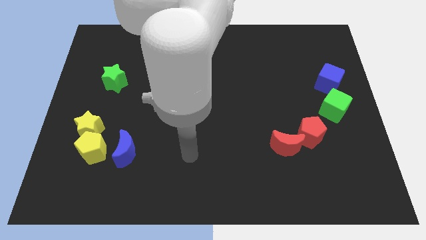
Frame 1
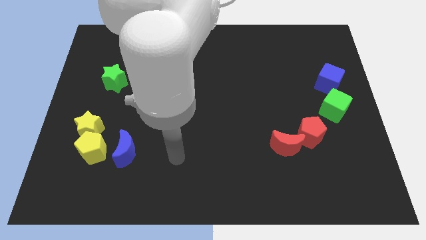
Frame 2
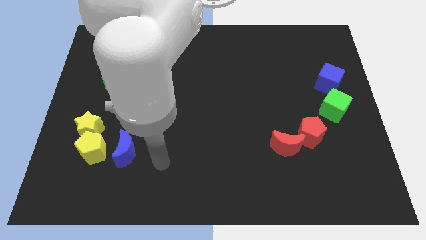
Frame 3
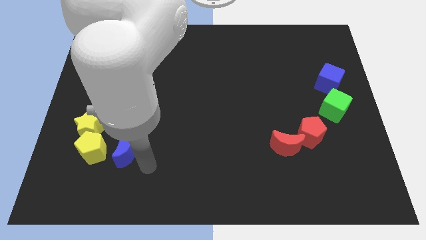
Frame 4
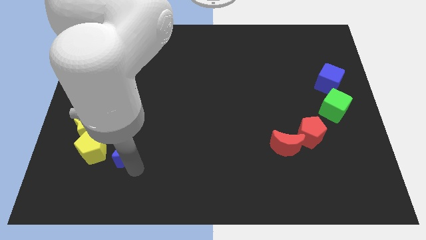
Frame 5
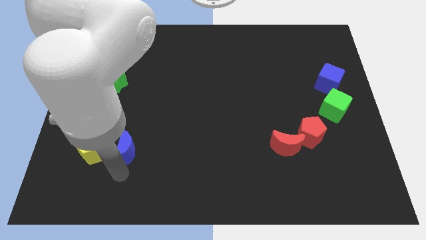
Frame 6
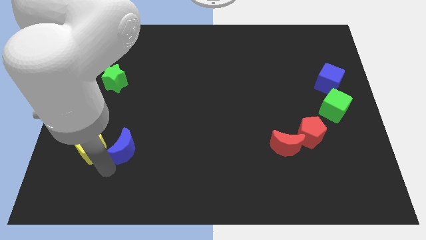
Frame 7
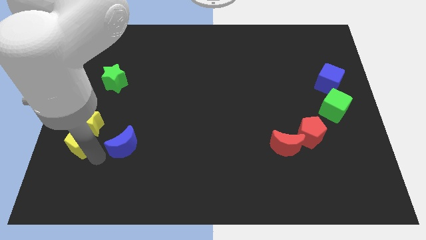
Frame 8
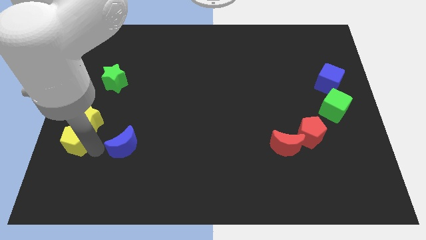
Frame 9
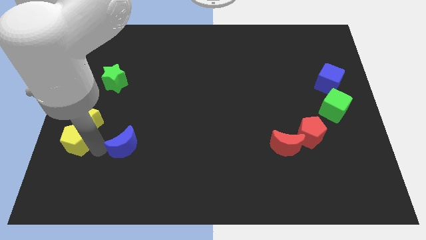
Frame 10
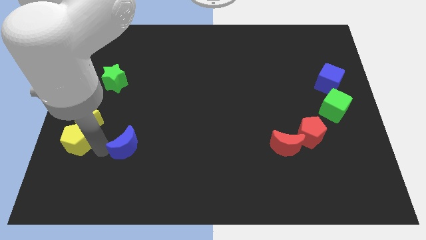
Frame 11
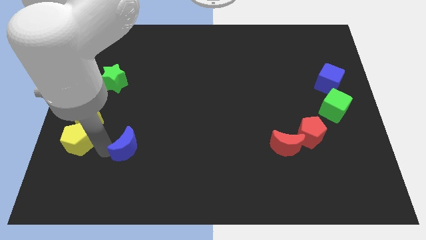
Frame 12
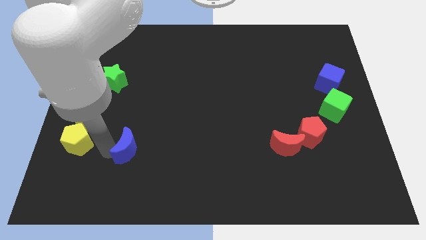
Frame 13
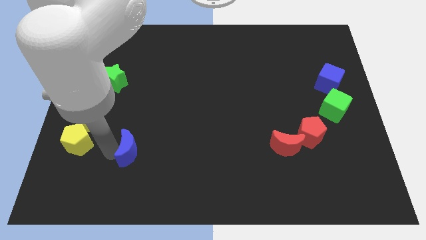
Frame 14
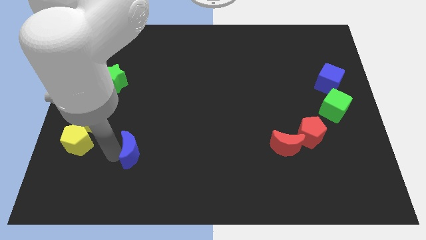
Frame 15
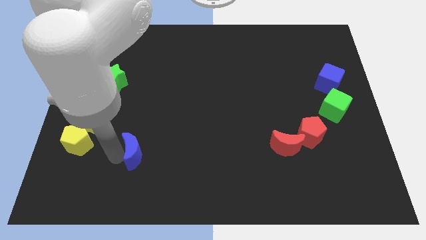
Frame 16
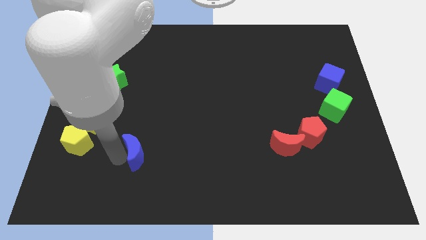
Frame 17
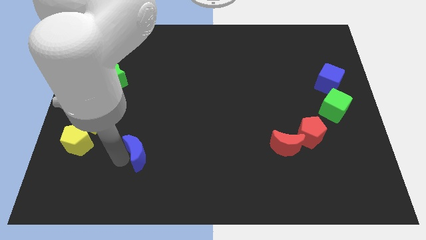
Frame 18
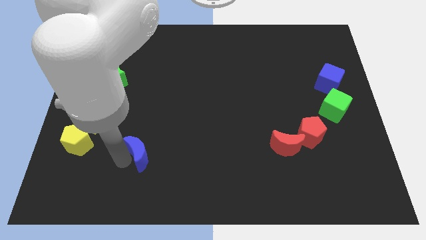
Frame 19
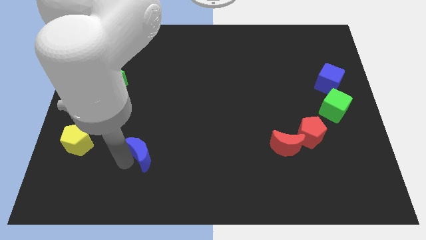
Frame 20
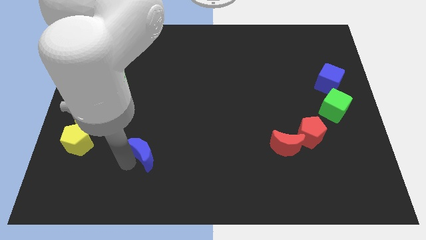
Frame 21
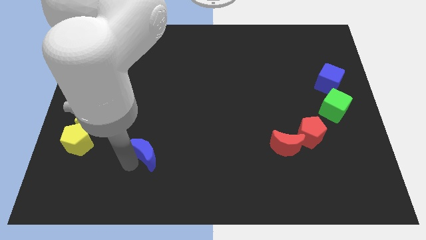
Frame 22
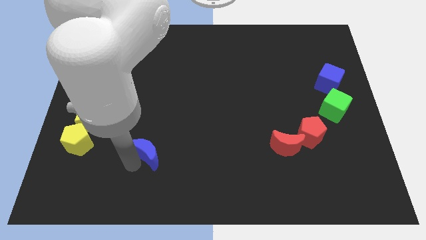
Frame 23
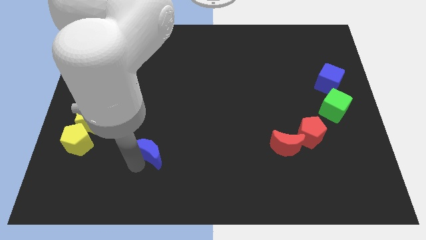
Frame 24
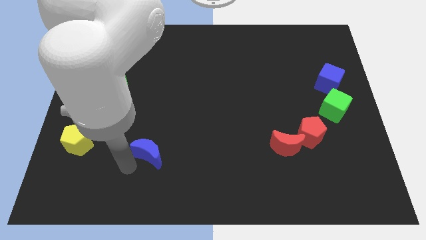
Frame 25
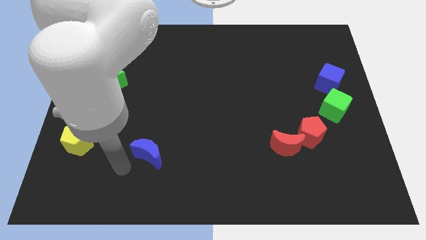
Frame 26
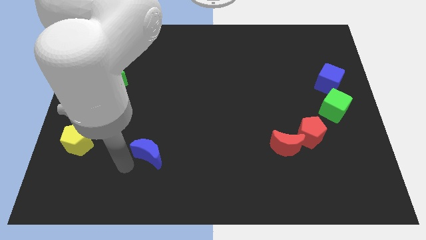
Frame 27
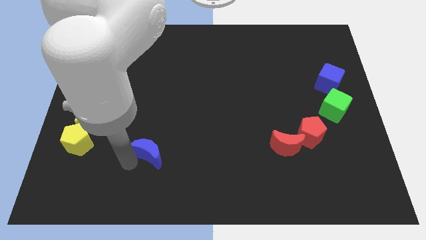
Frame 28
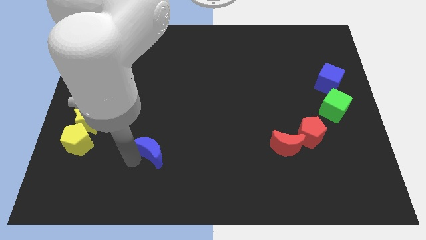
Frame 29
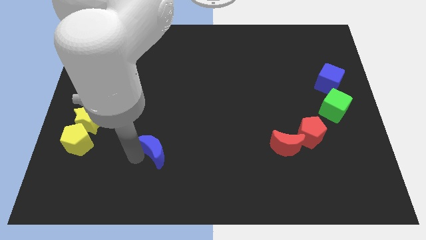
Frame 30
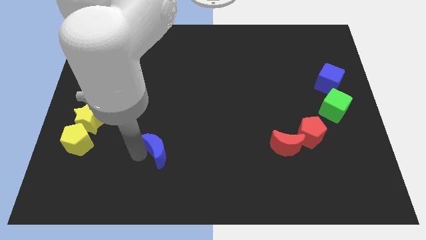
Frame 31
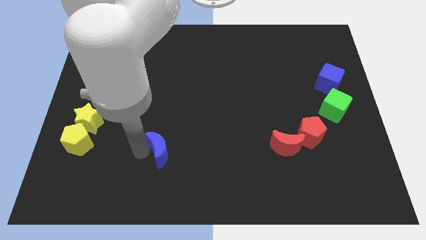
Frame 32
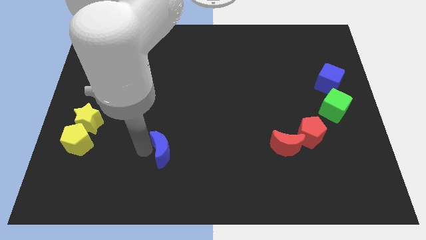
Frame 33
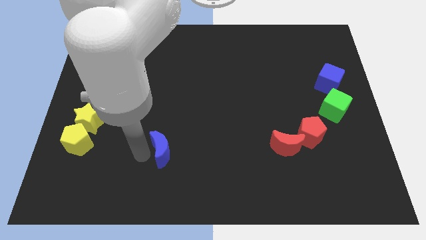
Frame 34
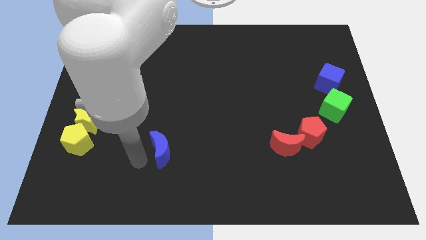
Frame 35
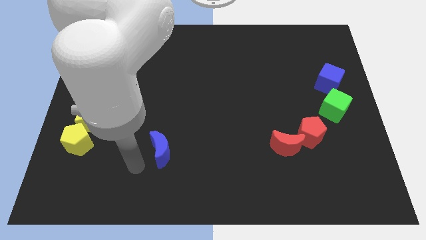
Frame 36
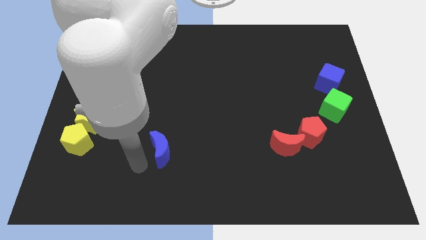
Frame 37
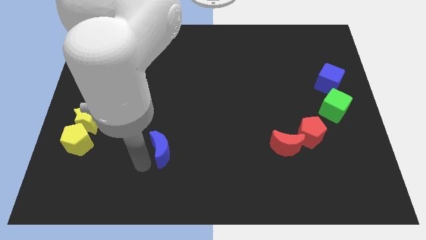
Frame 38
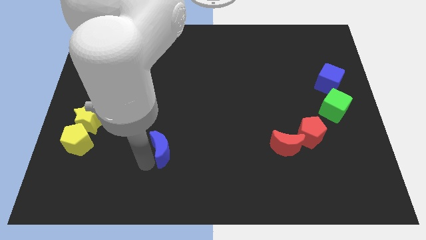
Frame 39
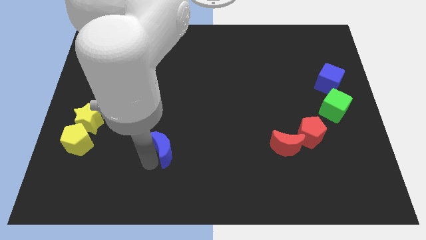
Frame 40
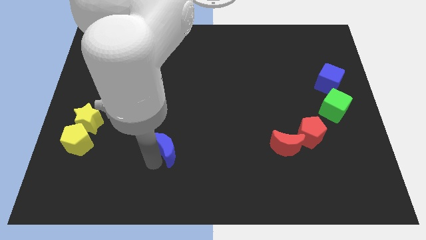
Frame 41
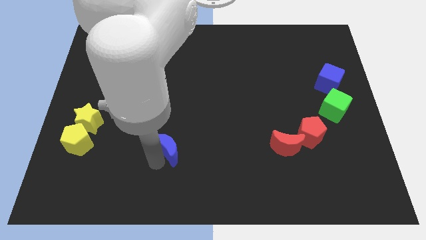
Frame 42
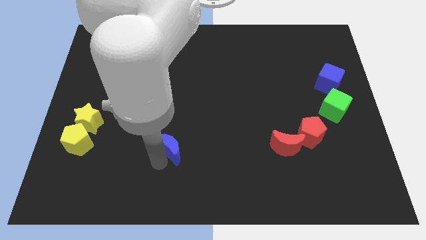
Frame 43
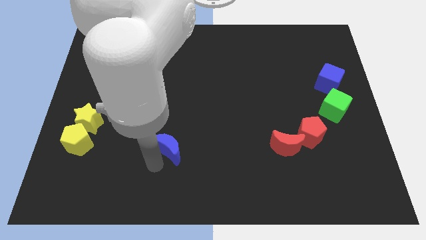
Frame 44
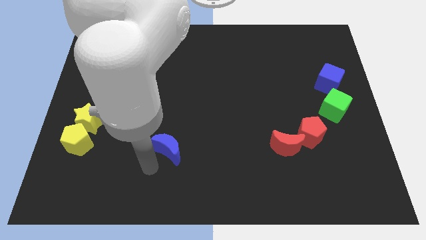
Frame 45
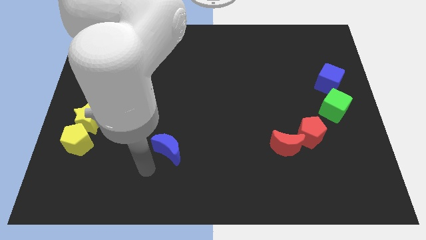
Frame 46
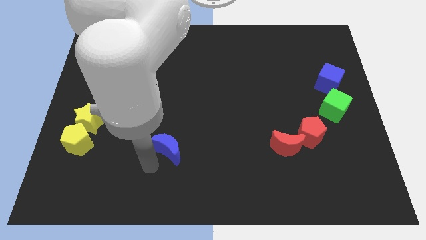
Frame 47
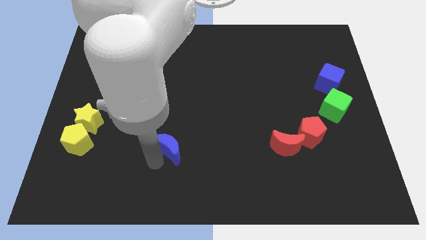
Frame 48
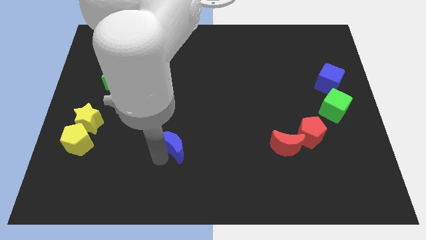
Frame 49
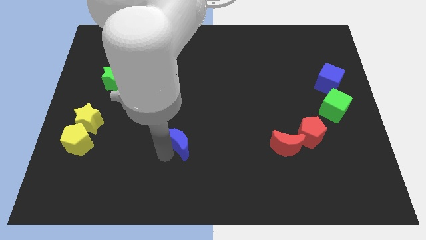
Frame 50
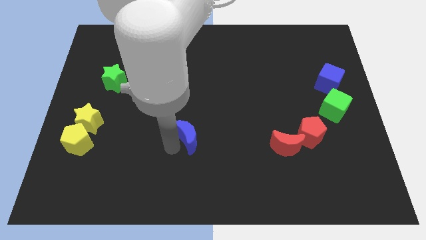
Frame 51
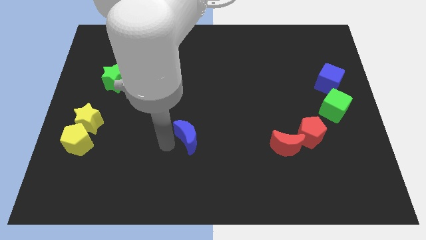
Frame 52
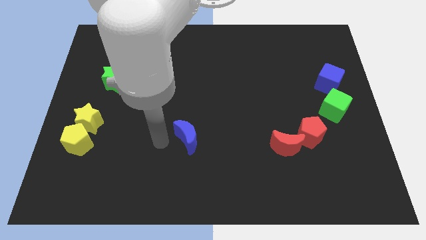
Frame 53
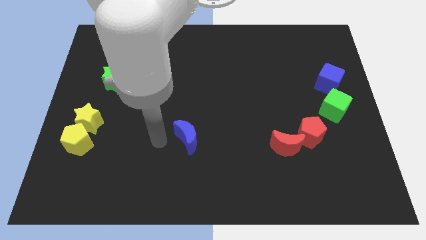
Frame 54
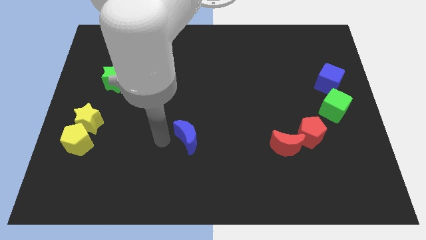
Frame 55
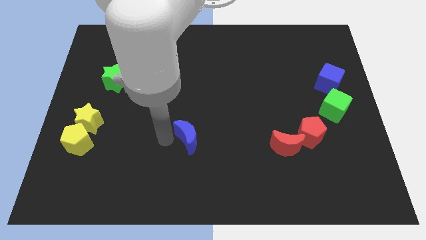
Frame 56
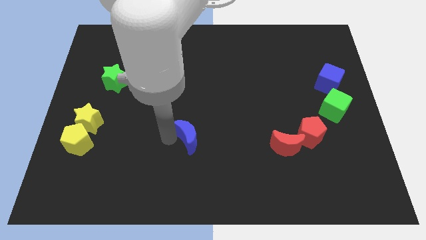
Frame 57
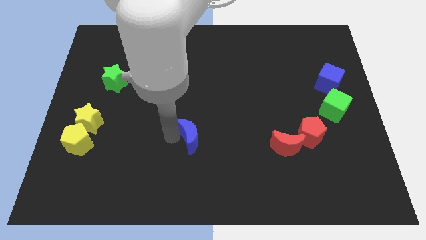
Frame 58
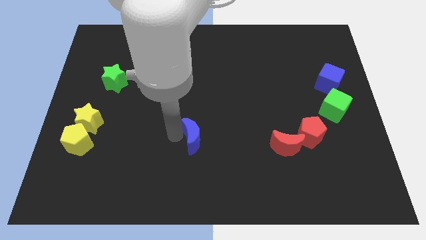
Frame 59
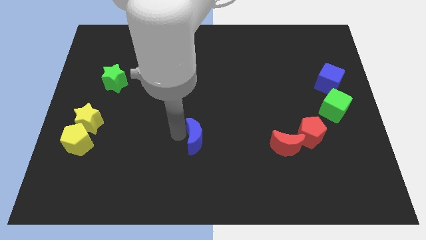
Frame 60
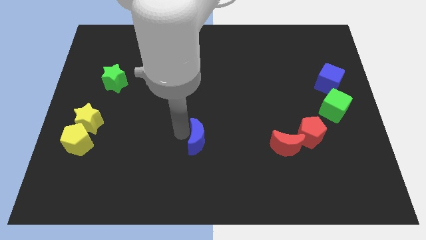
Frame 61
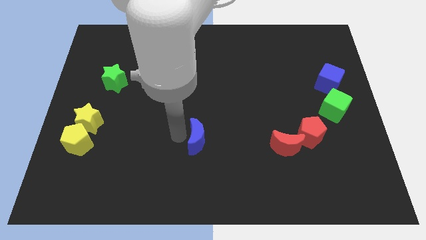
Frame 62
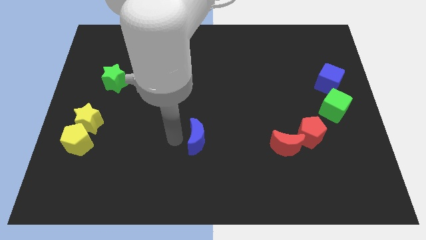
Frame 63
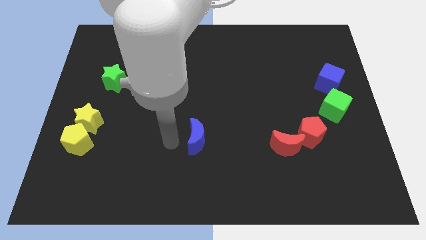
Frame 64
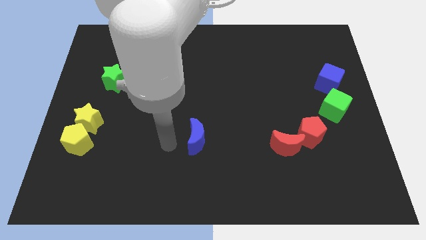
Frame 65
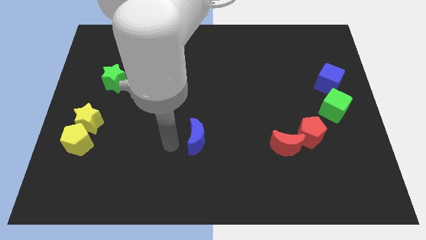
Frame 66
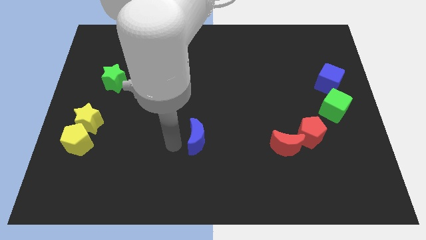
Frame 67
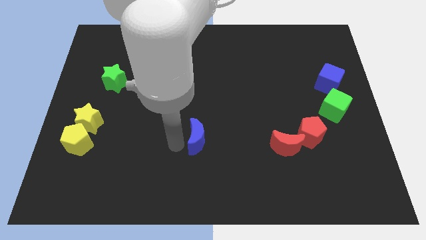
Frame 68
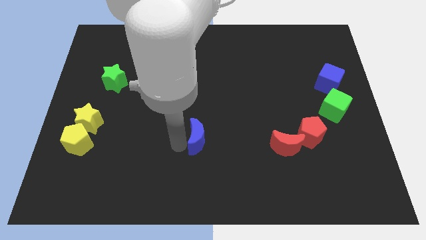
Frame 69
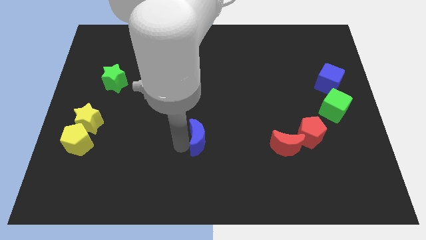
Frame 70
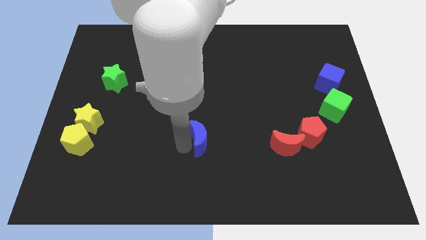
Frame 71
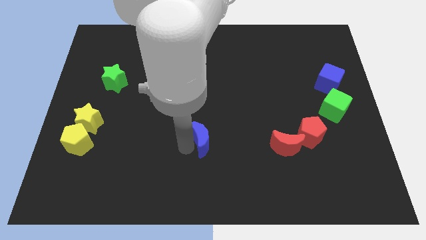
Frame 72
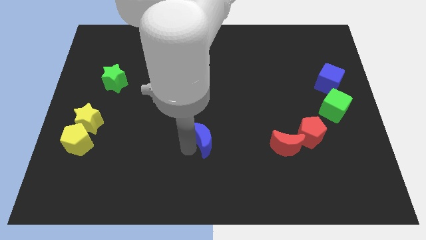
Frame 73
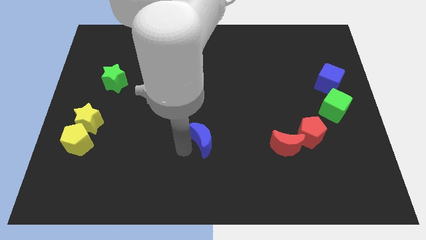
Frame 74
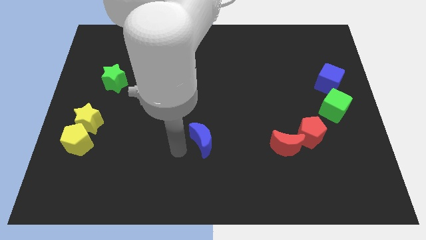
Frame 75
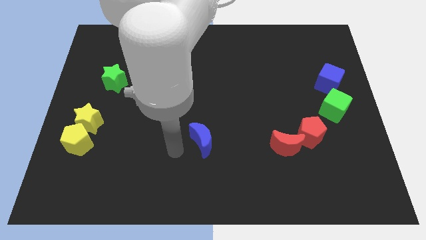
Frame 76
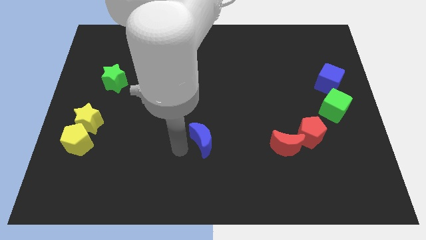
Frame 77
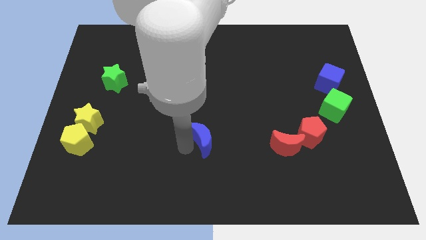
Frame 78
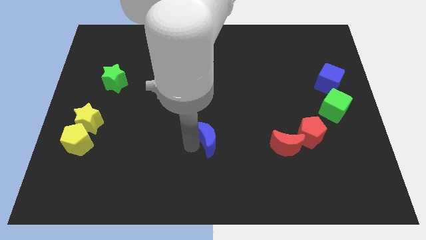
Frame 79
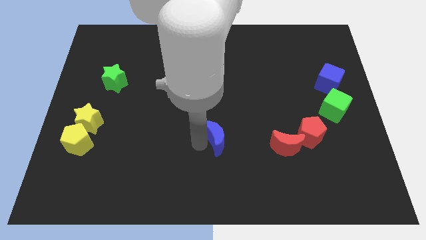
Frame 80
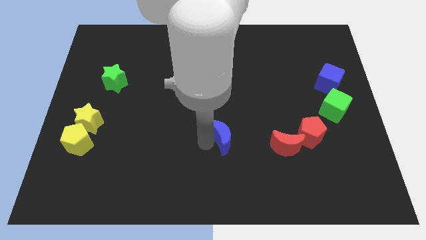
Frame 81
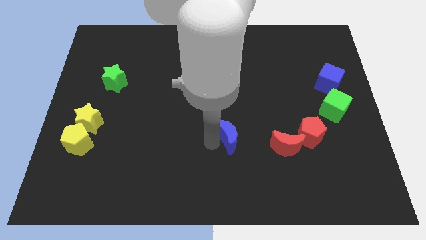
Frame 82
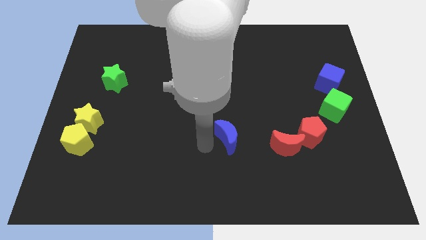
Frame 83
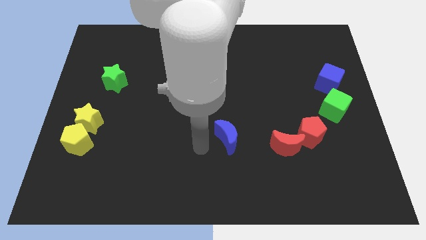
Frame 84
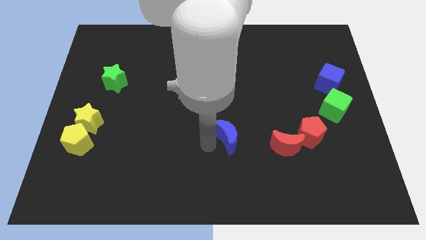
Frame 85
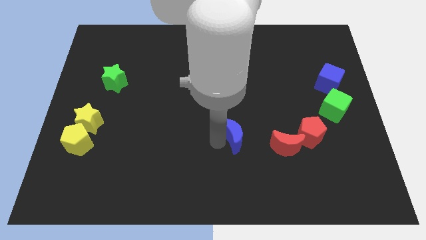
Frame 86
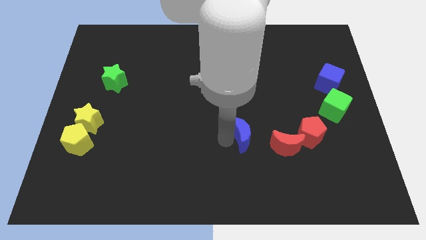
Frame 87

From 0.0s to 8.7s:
slide the blue moon to the top left side of the red moon
